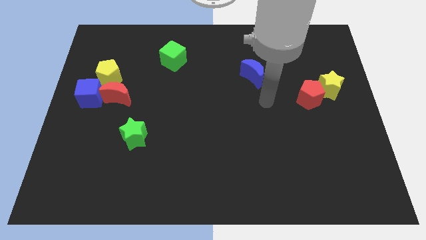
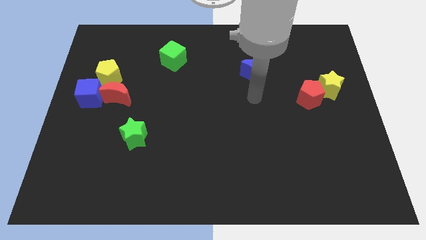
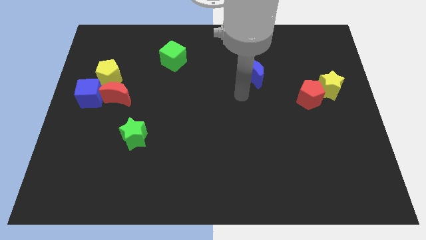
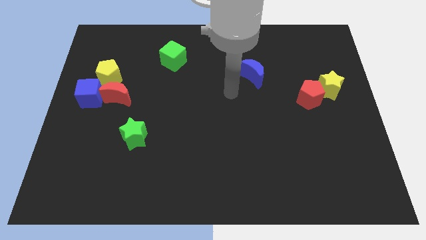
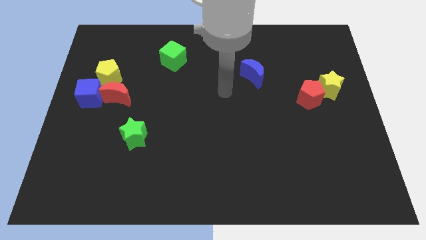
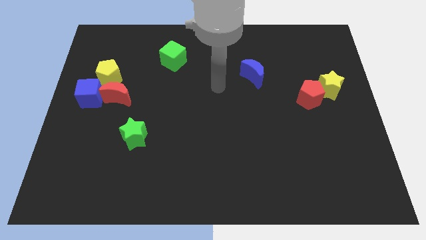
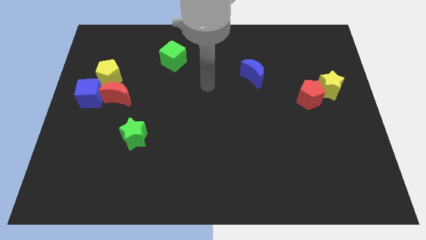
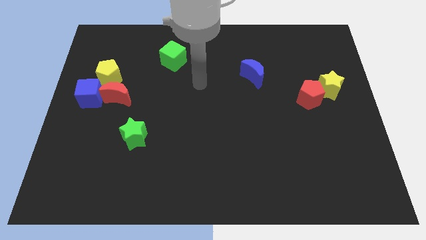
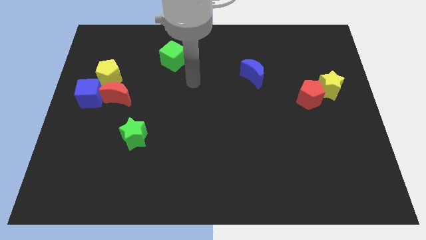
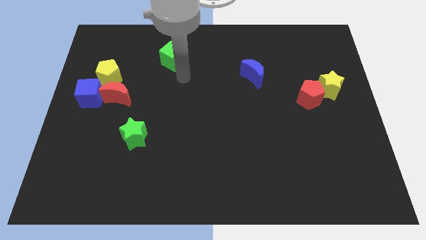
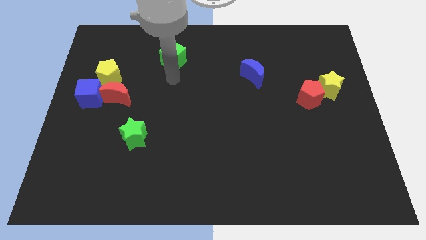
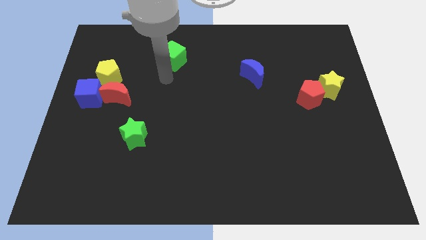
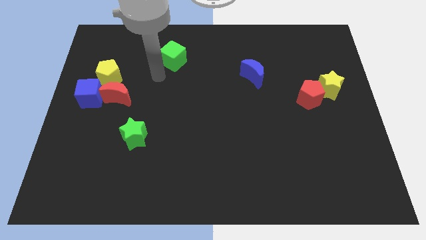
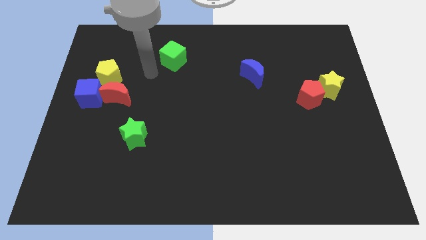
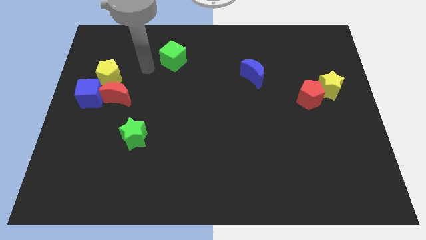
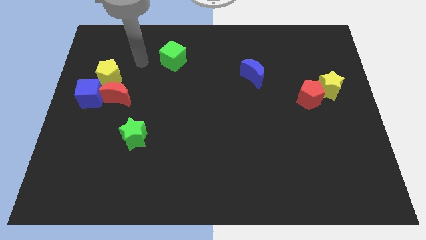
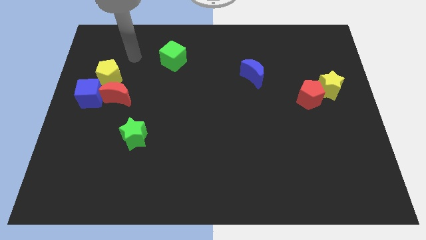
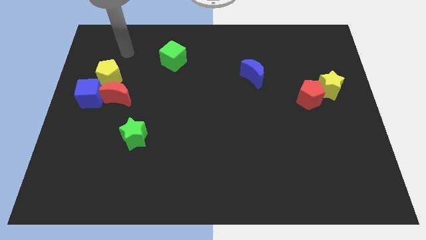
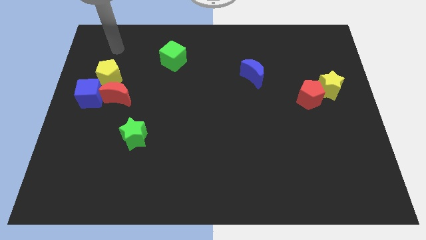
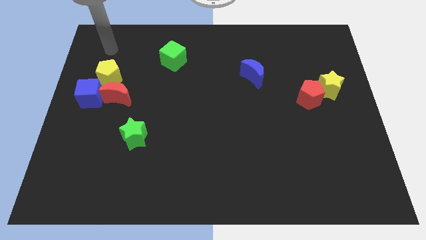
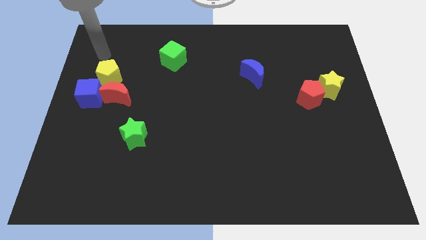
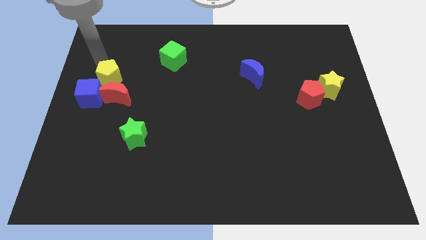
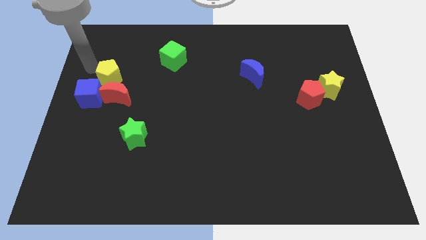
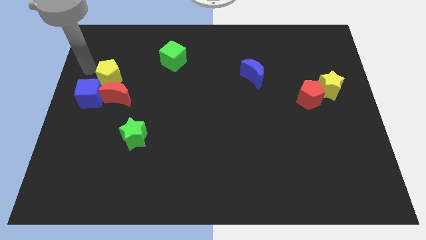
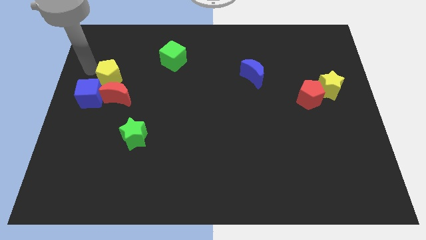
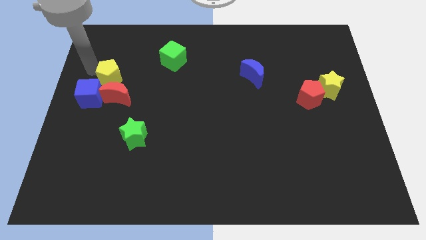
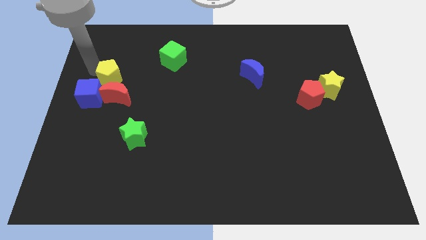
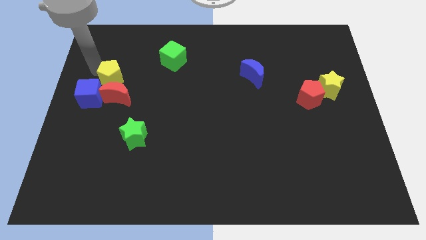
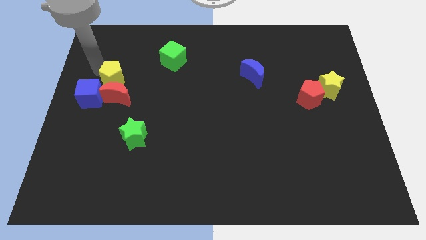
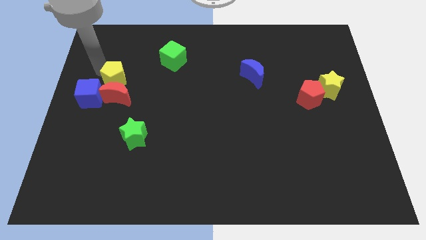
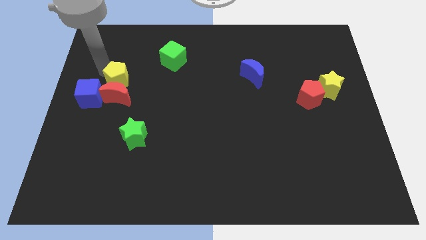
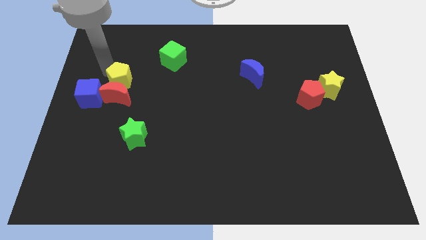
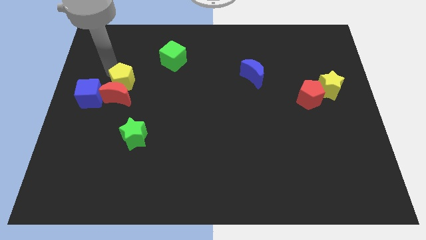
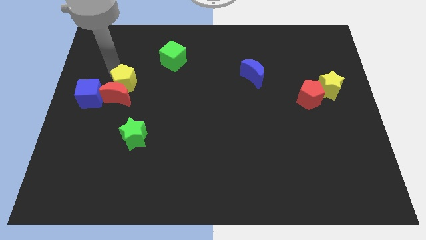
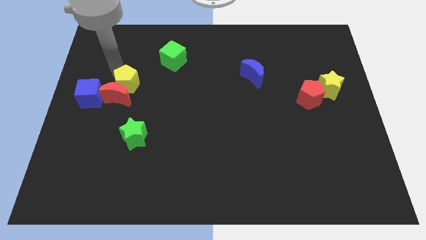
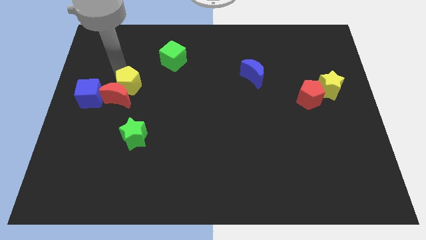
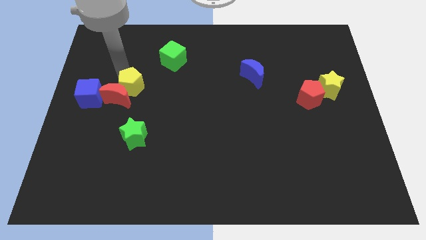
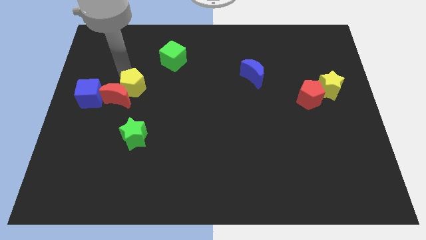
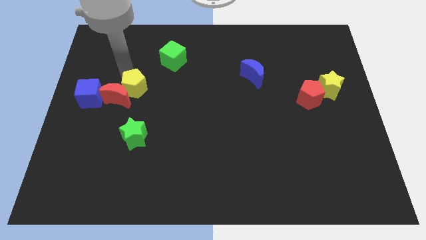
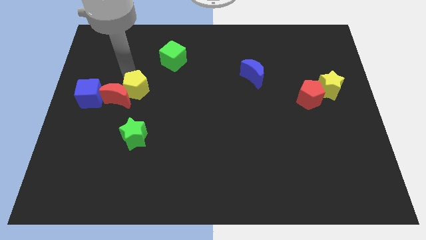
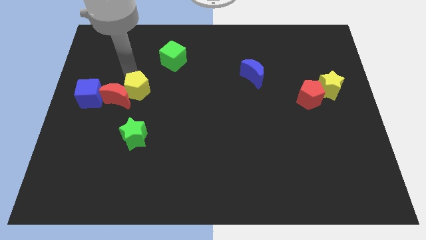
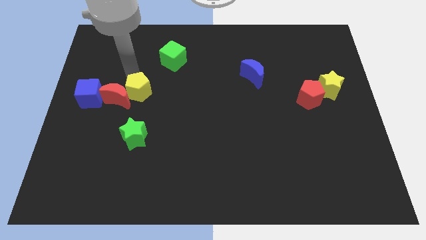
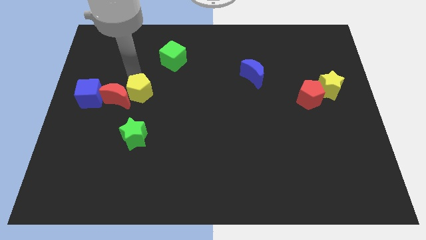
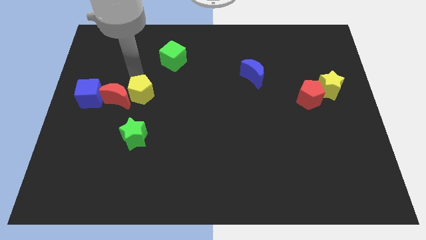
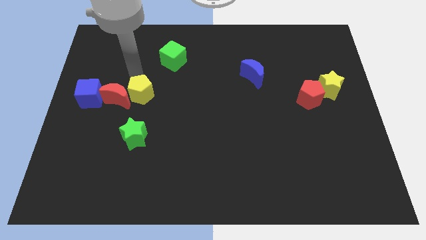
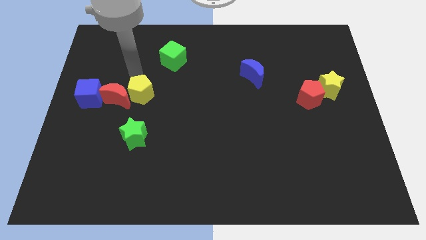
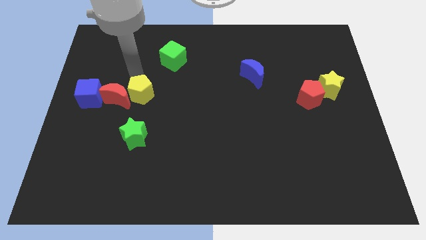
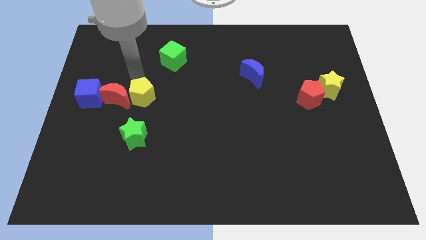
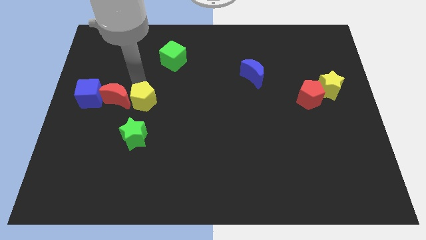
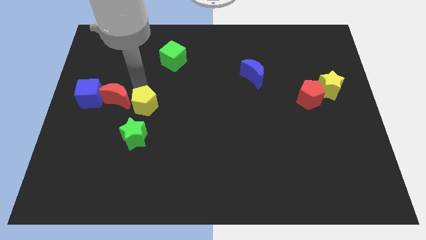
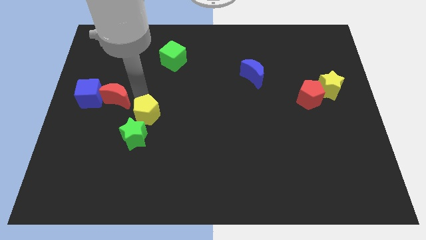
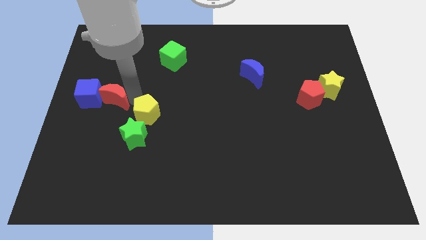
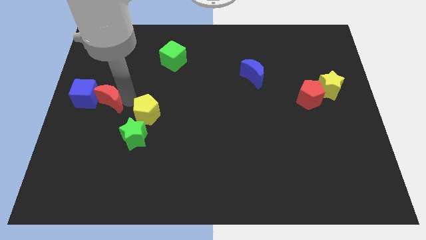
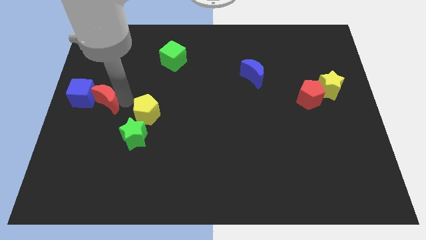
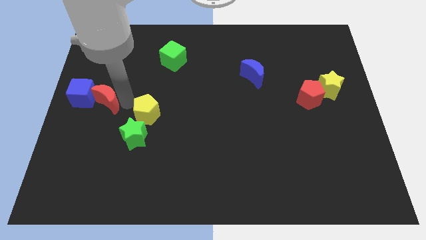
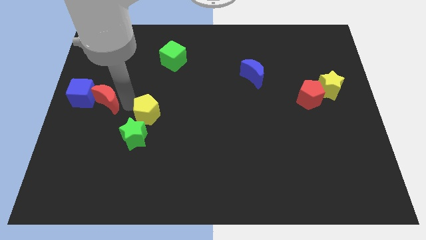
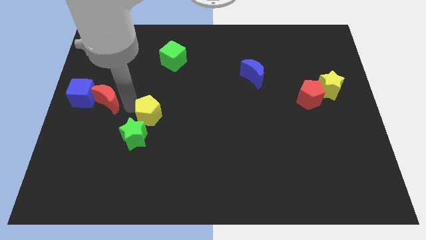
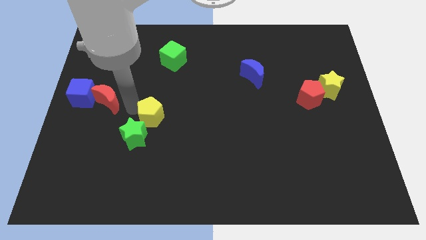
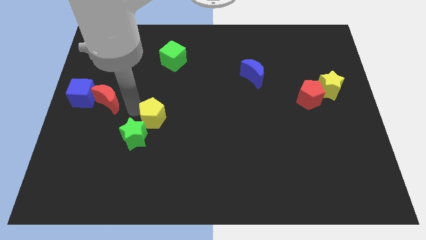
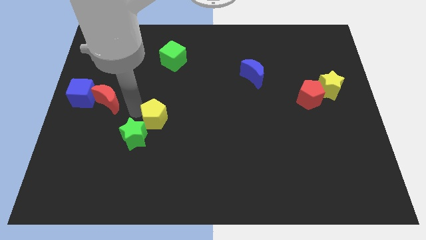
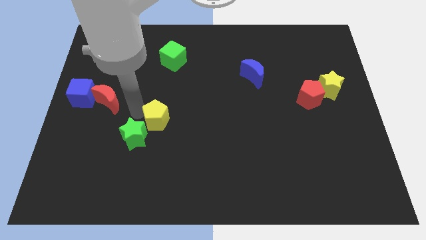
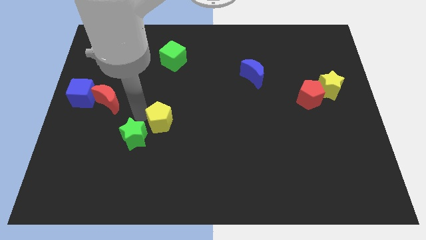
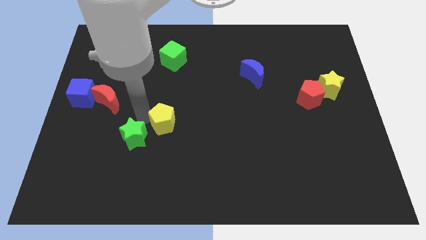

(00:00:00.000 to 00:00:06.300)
move the yellow pentagon down and to the right diagonally

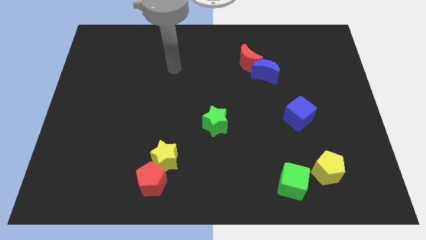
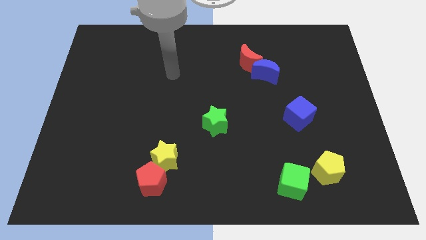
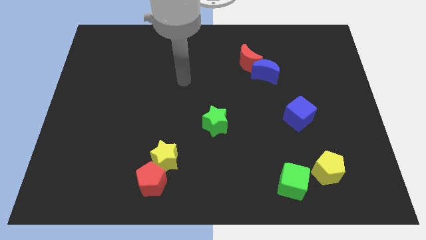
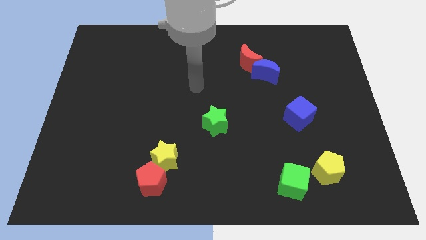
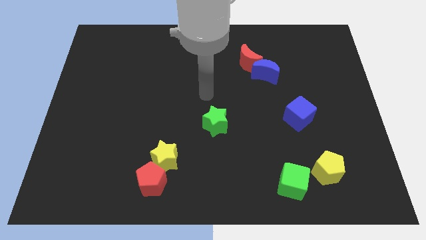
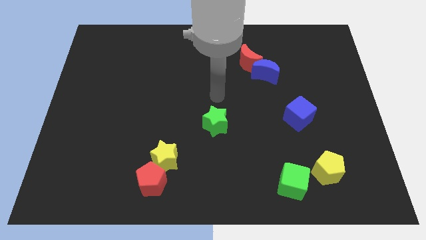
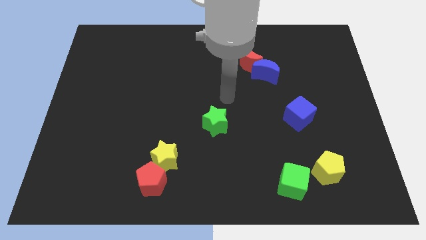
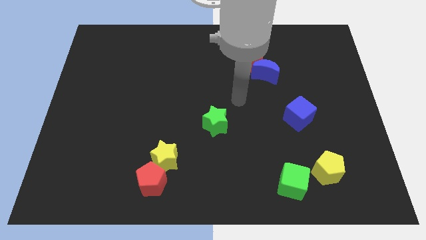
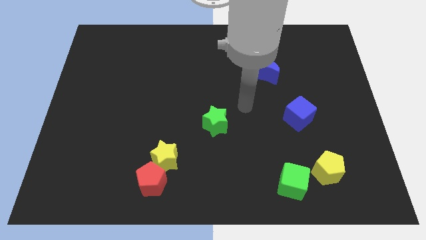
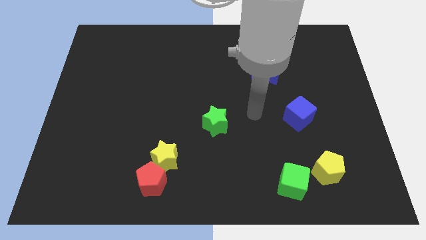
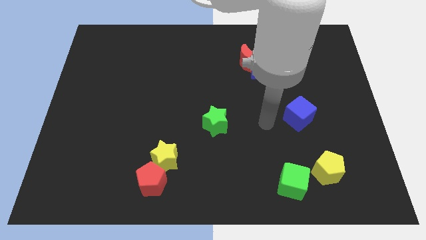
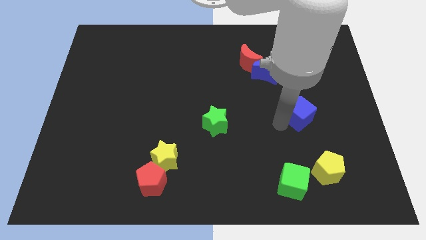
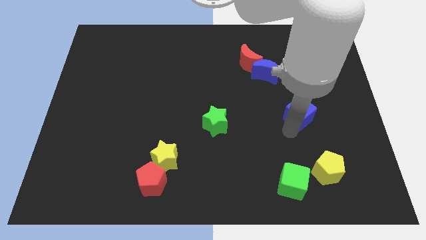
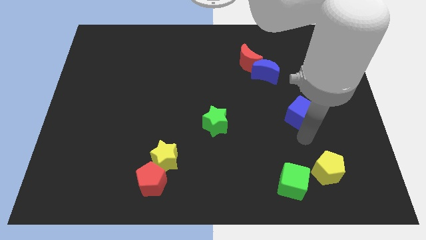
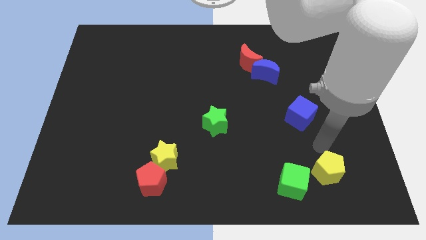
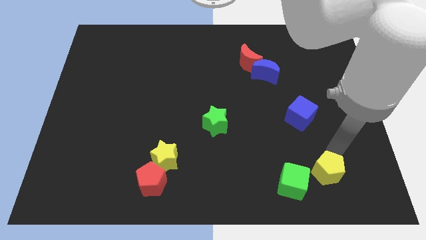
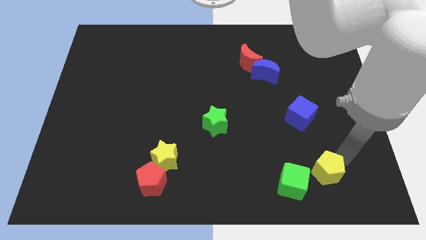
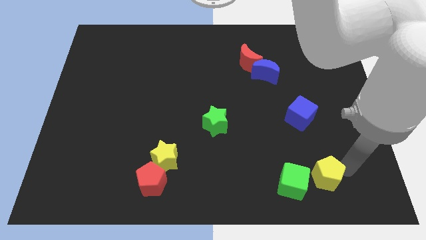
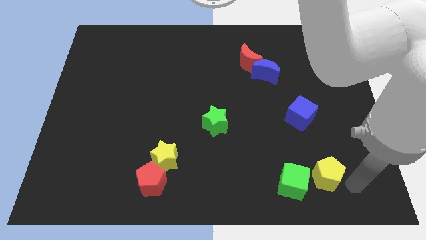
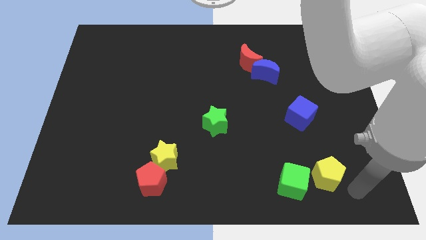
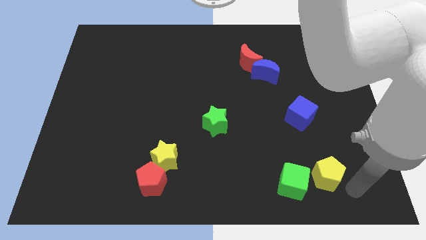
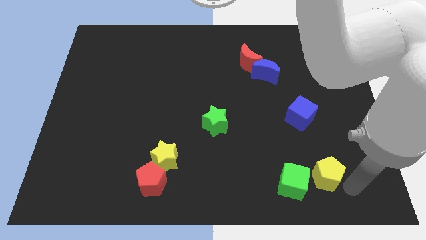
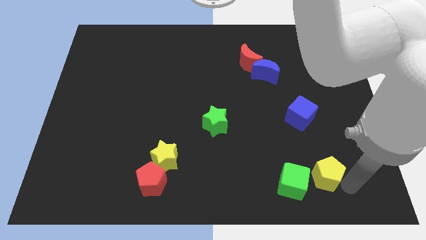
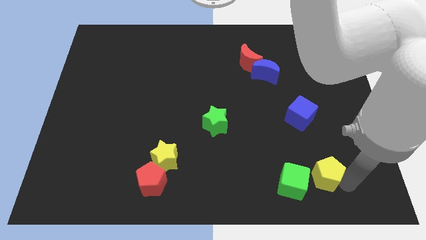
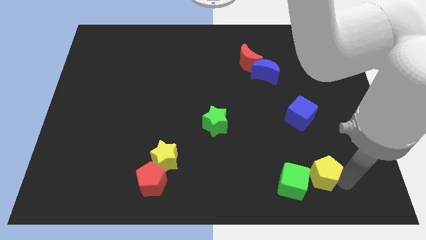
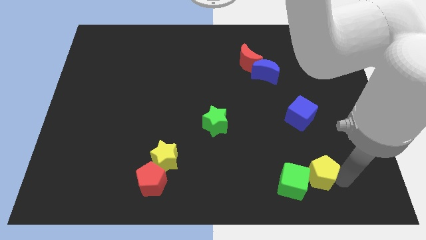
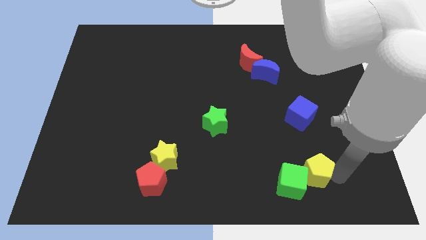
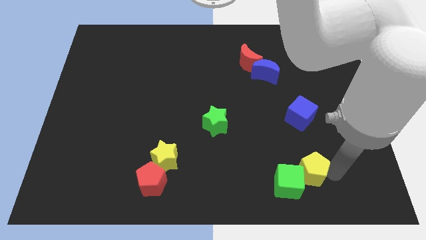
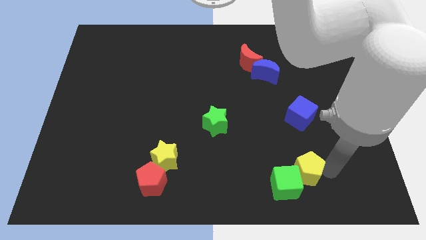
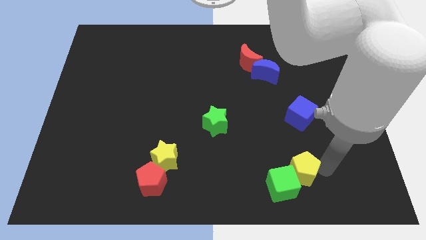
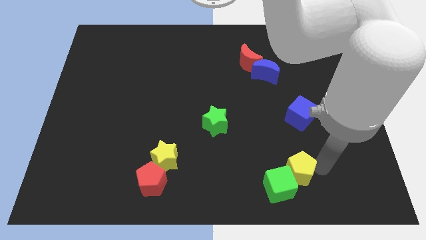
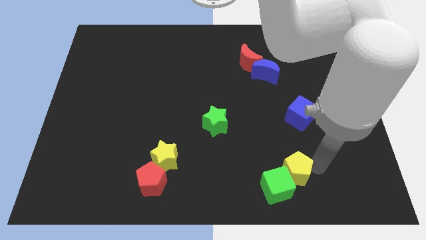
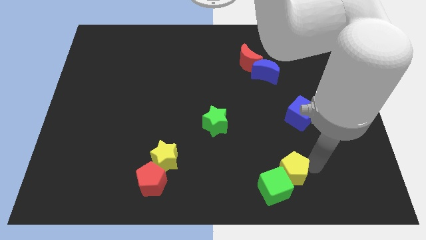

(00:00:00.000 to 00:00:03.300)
push the yellow pentagon left a little bit
